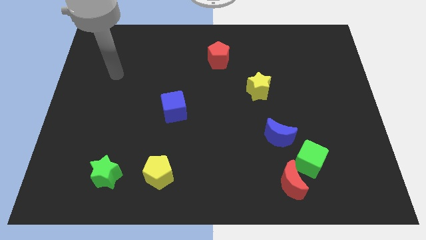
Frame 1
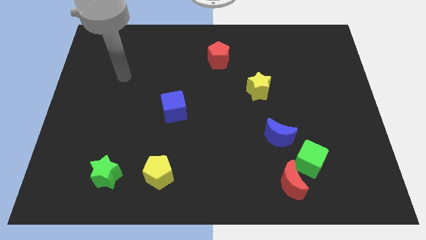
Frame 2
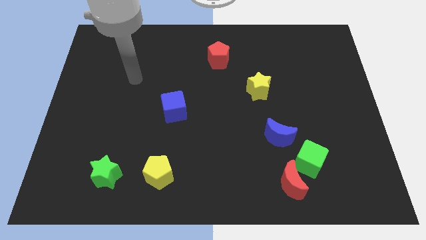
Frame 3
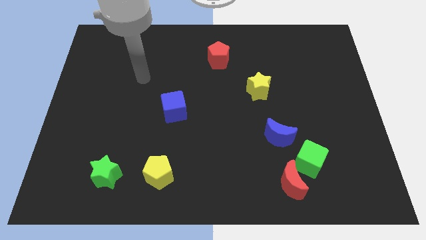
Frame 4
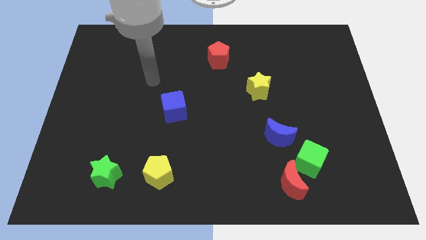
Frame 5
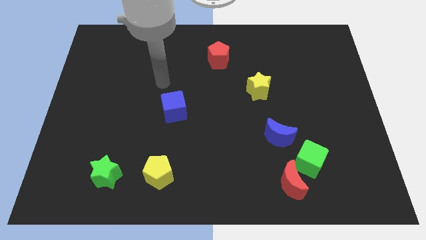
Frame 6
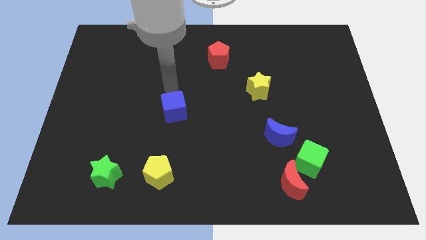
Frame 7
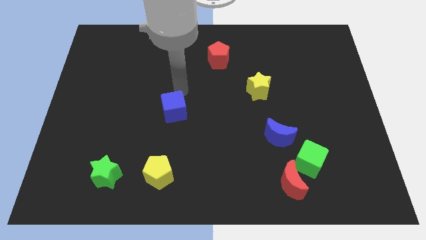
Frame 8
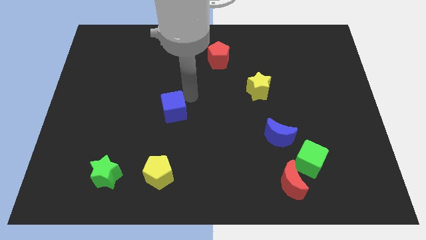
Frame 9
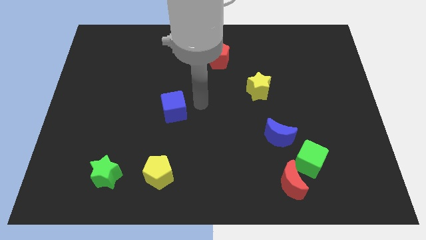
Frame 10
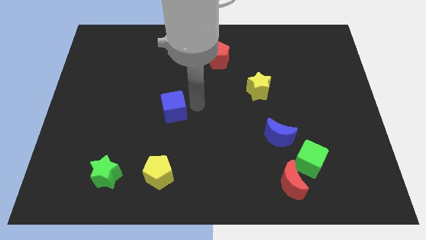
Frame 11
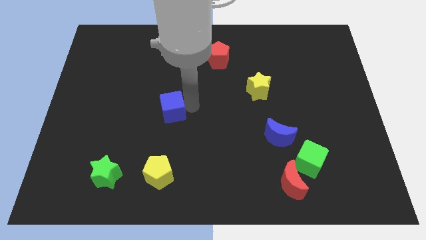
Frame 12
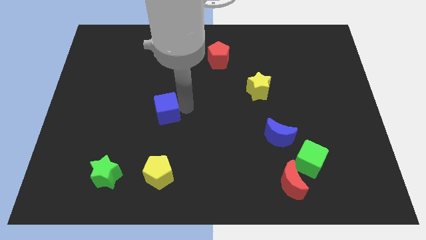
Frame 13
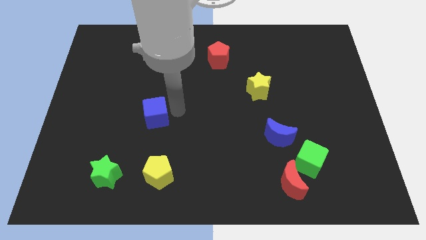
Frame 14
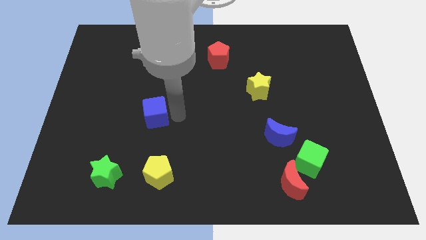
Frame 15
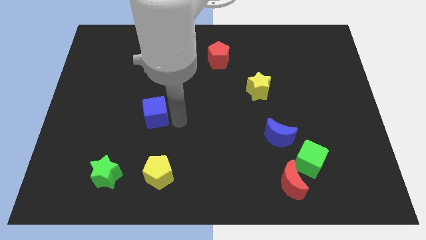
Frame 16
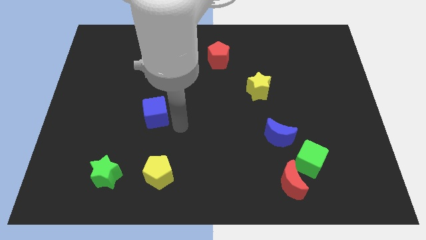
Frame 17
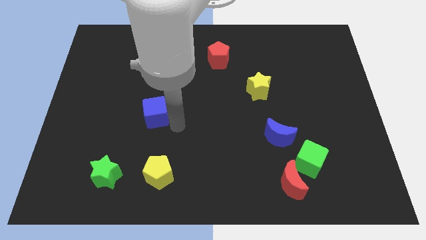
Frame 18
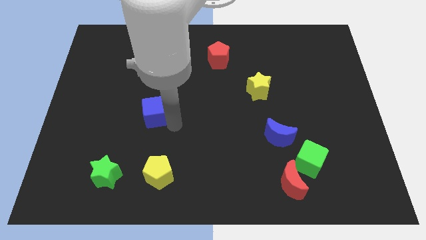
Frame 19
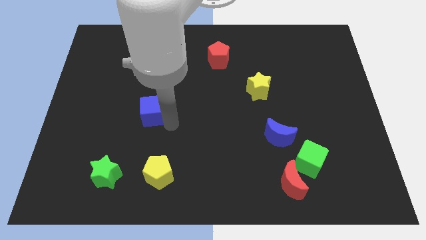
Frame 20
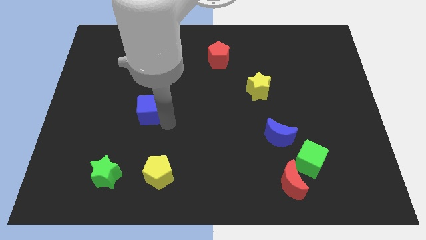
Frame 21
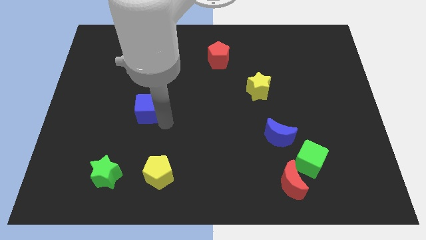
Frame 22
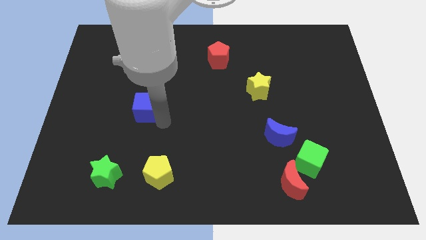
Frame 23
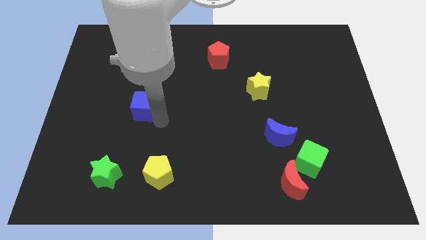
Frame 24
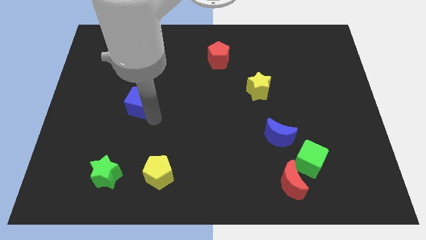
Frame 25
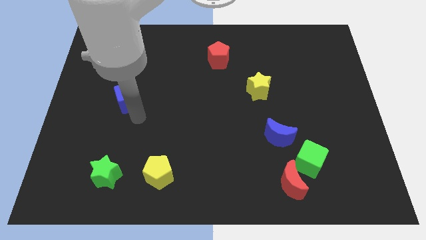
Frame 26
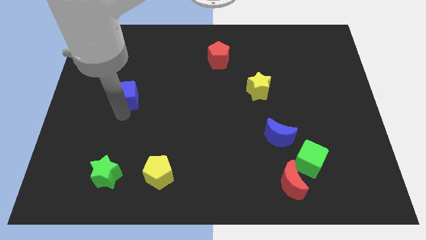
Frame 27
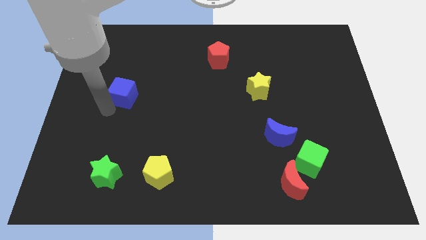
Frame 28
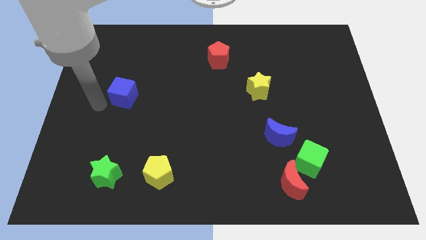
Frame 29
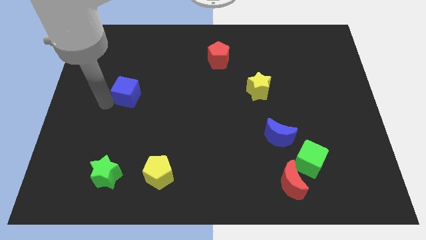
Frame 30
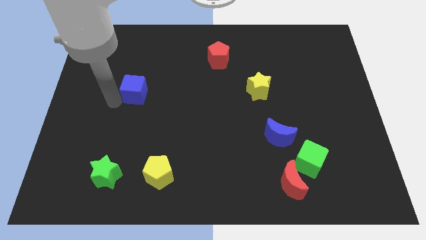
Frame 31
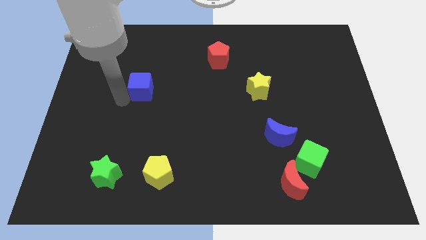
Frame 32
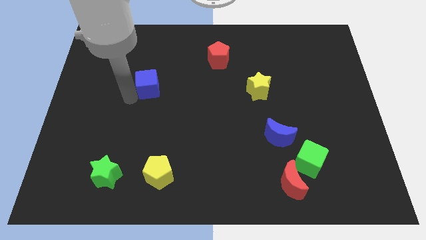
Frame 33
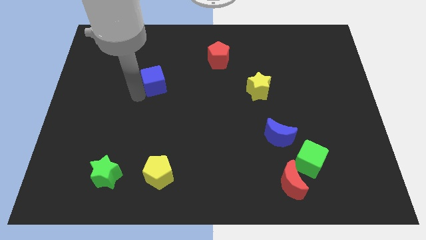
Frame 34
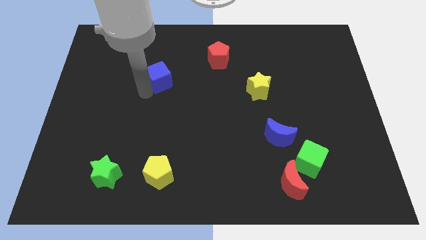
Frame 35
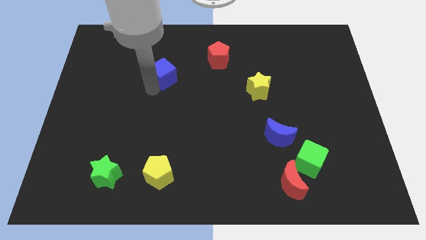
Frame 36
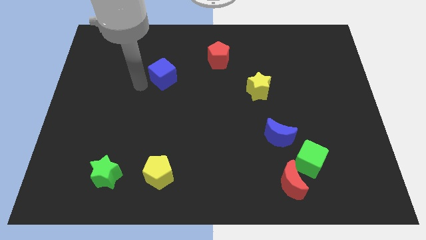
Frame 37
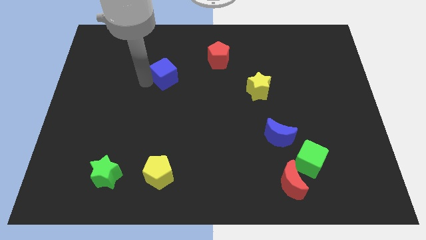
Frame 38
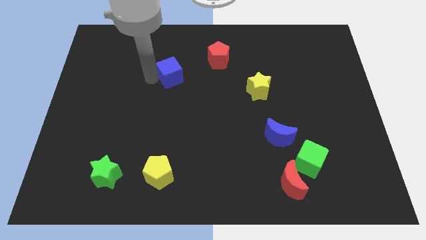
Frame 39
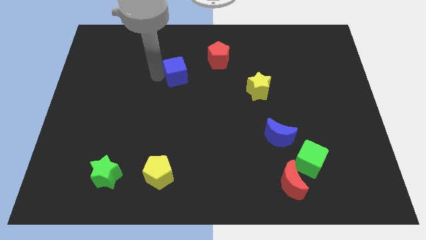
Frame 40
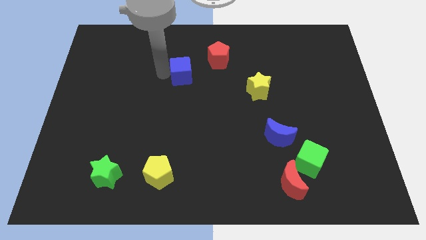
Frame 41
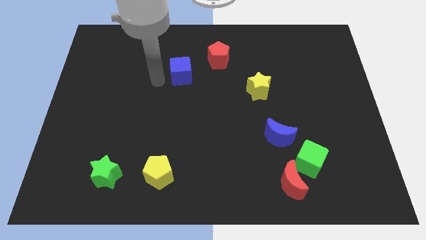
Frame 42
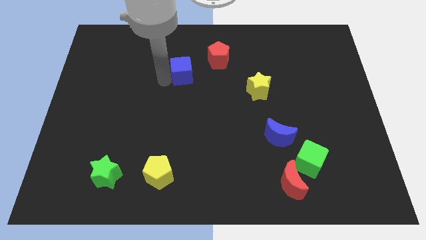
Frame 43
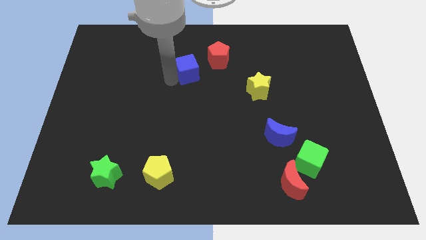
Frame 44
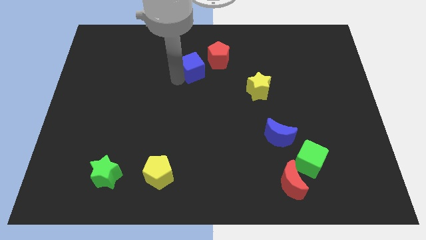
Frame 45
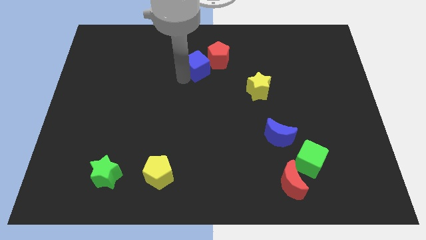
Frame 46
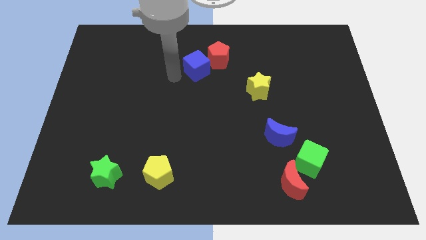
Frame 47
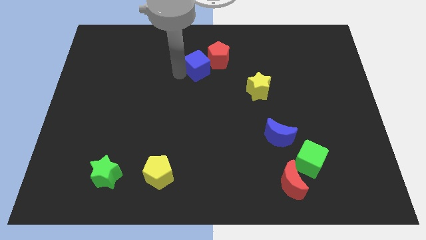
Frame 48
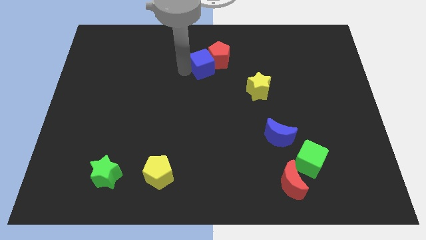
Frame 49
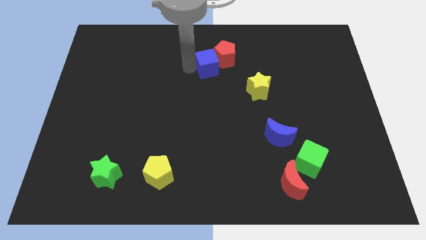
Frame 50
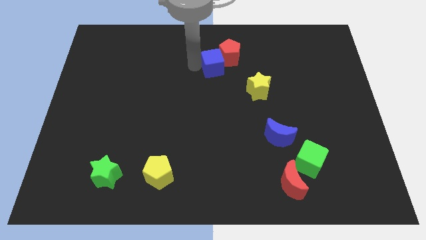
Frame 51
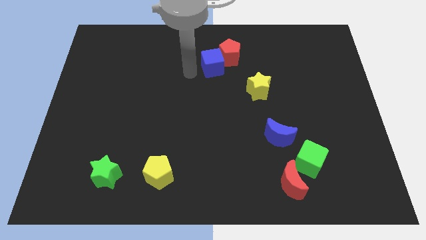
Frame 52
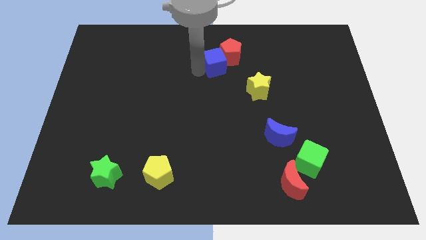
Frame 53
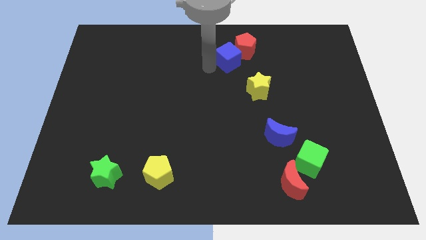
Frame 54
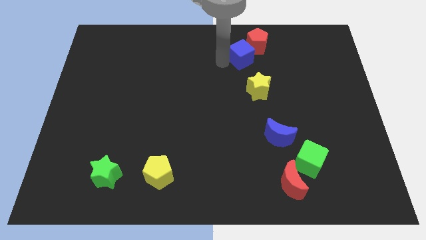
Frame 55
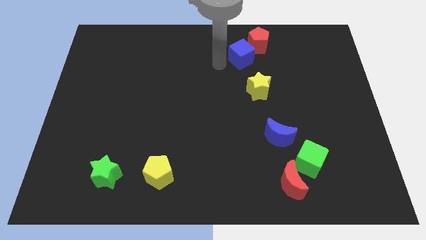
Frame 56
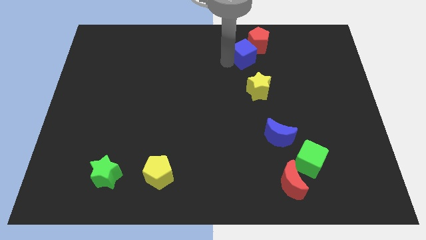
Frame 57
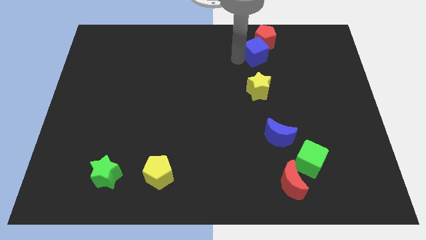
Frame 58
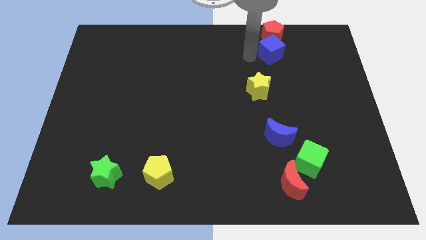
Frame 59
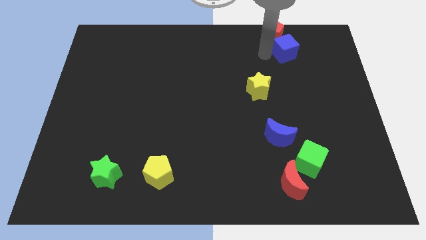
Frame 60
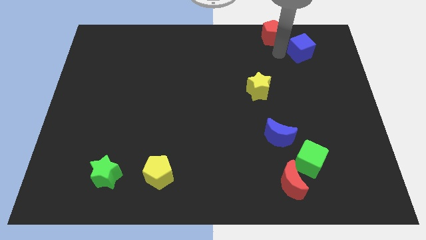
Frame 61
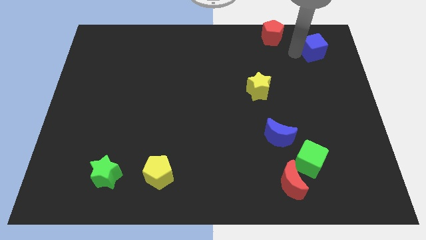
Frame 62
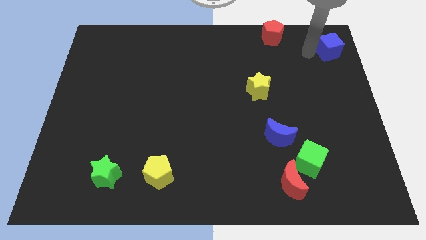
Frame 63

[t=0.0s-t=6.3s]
slide the blue cube to the top right corner
